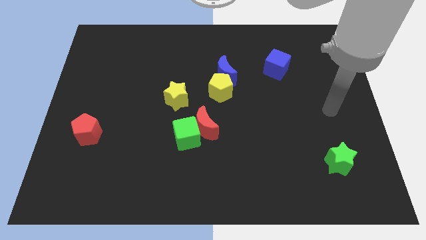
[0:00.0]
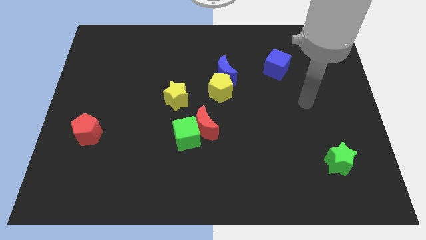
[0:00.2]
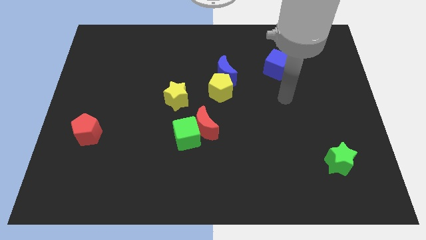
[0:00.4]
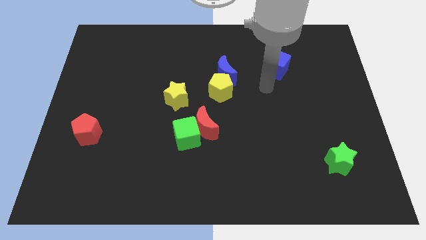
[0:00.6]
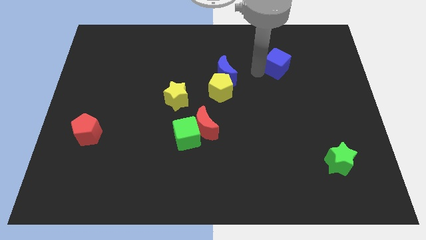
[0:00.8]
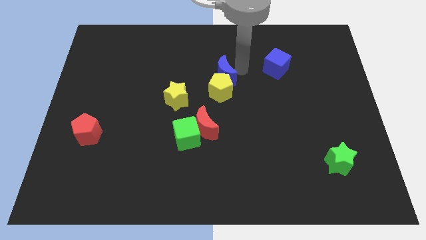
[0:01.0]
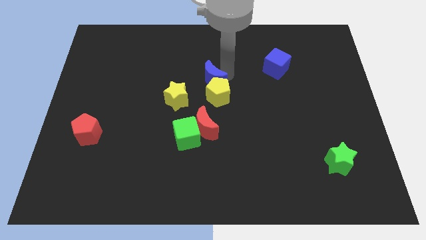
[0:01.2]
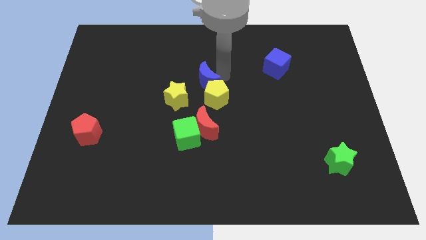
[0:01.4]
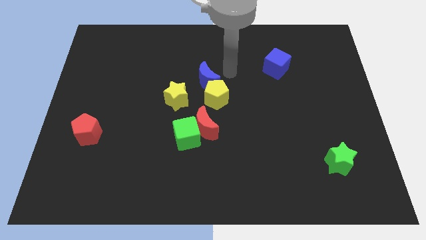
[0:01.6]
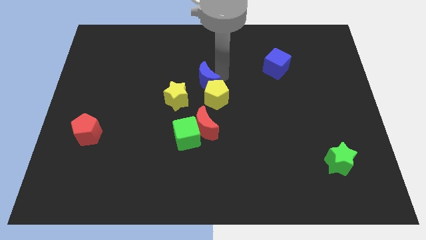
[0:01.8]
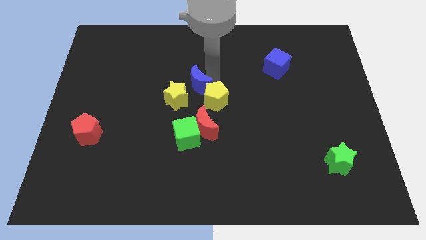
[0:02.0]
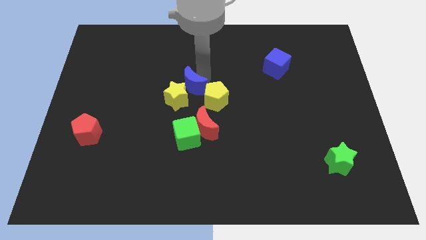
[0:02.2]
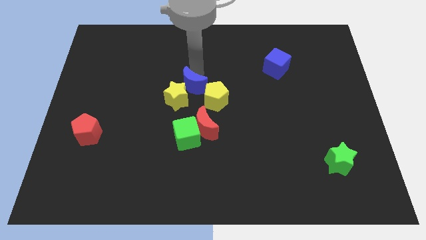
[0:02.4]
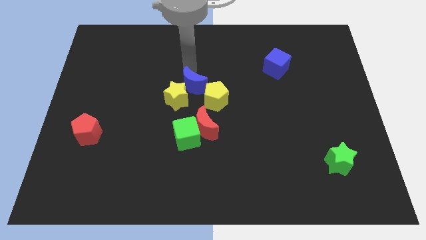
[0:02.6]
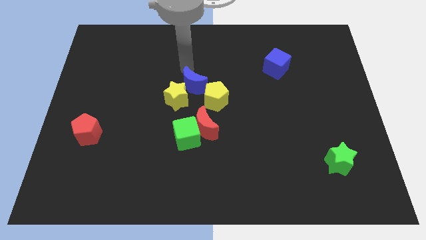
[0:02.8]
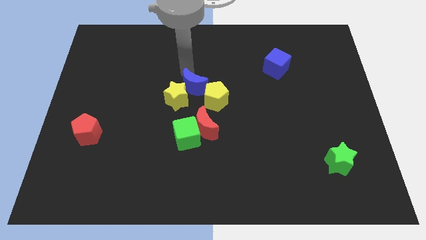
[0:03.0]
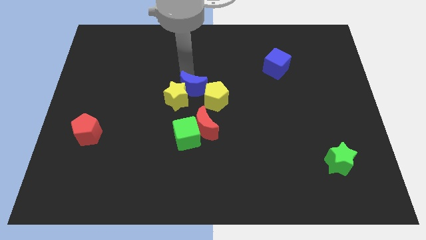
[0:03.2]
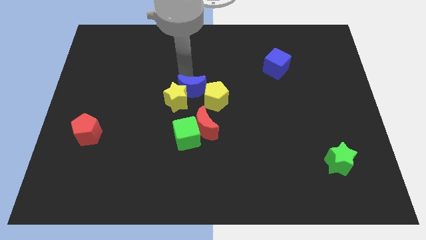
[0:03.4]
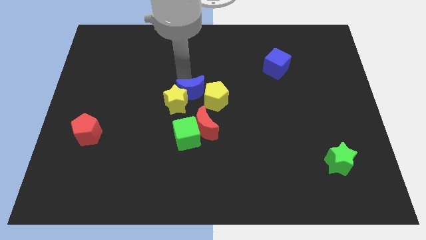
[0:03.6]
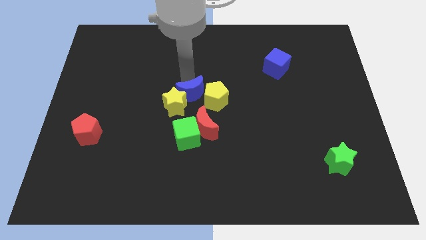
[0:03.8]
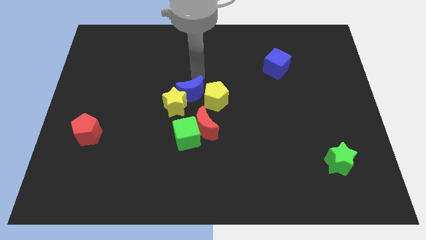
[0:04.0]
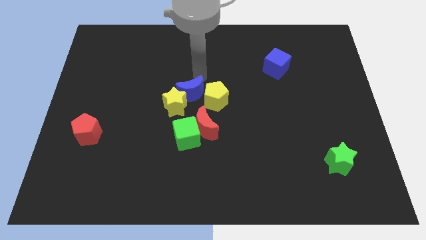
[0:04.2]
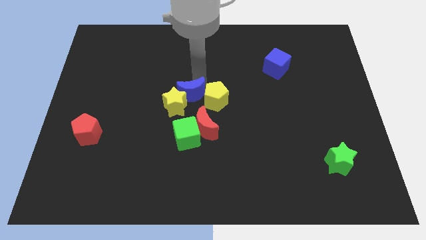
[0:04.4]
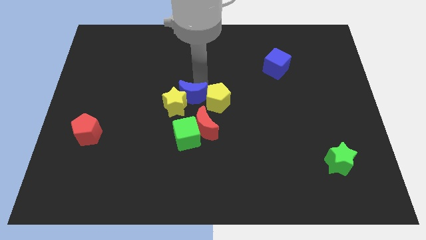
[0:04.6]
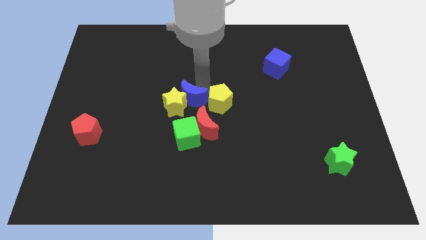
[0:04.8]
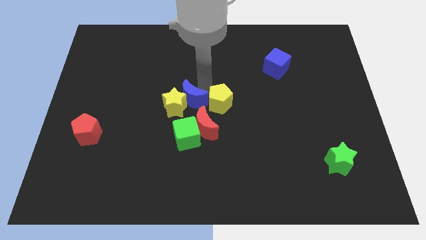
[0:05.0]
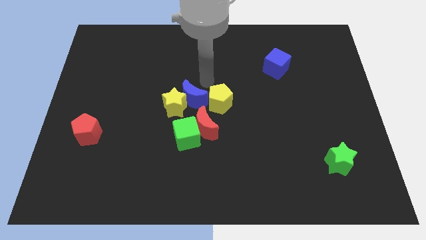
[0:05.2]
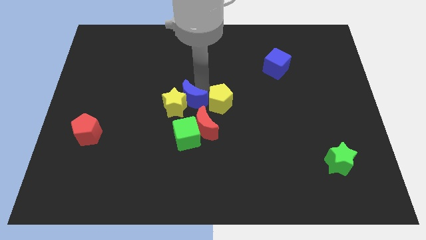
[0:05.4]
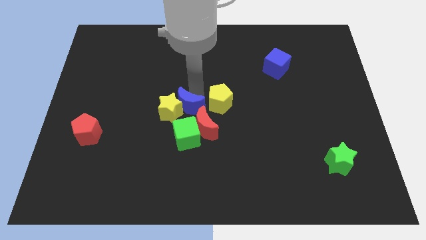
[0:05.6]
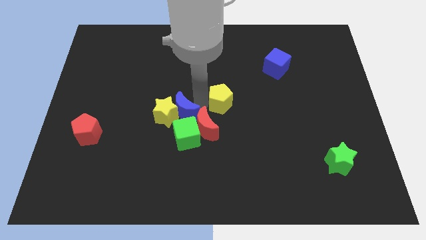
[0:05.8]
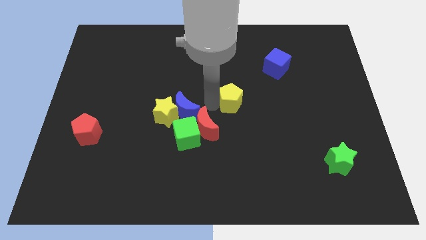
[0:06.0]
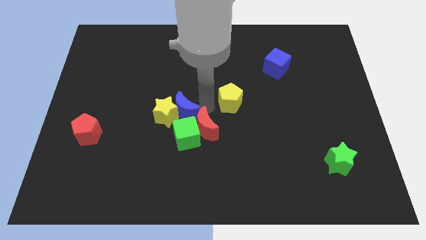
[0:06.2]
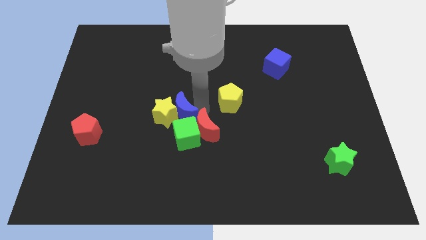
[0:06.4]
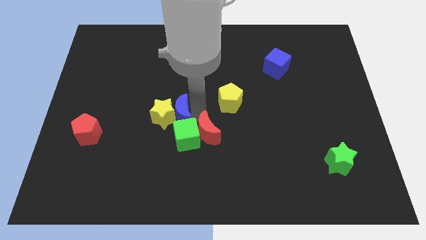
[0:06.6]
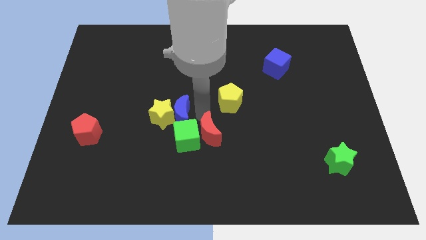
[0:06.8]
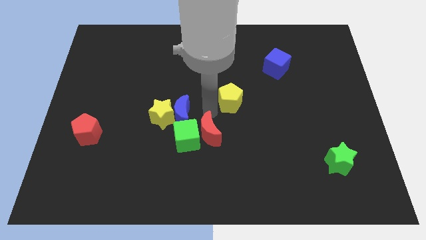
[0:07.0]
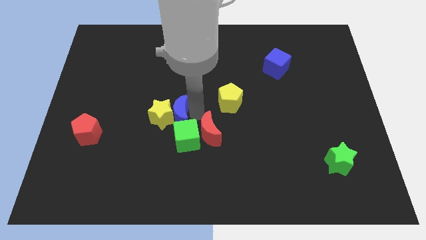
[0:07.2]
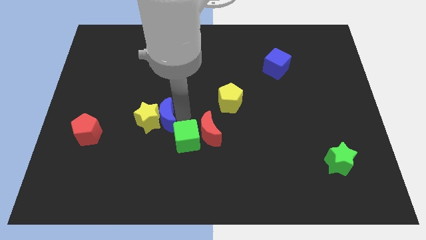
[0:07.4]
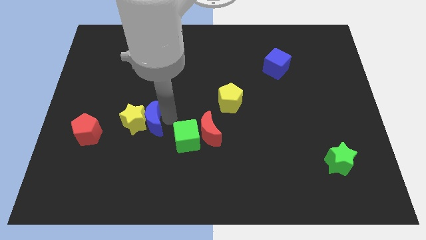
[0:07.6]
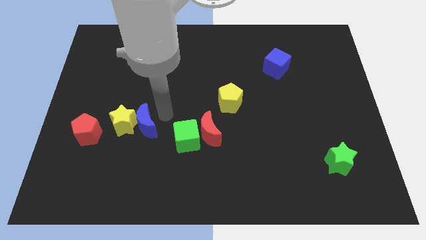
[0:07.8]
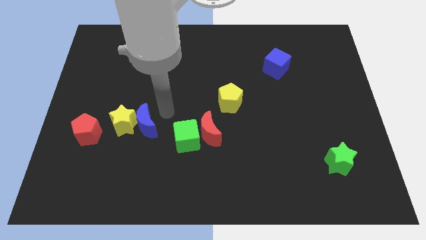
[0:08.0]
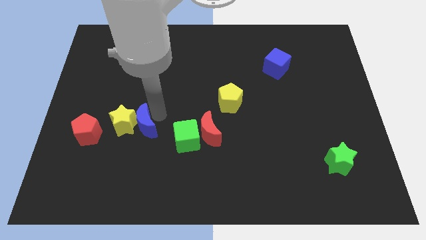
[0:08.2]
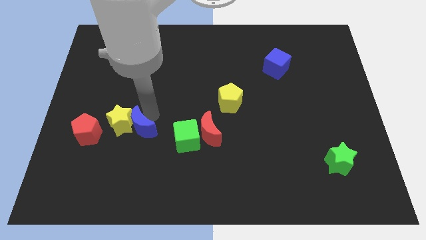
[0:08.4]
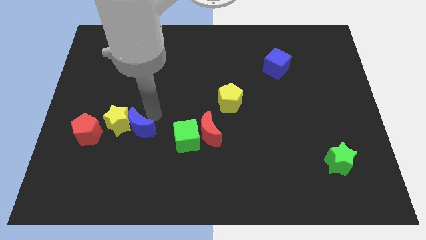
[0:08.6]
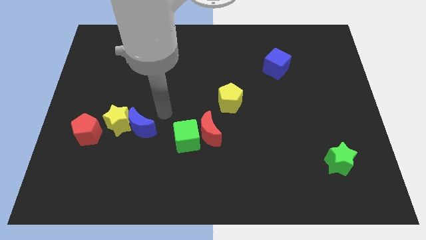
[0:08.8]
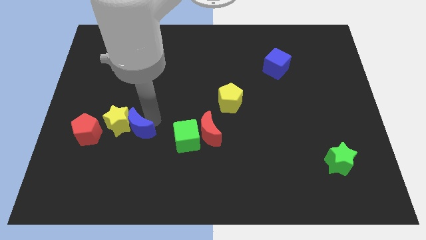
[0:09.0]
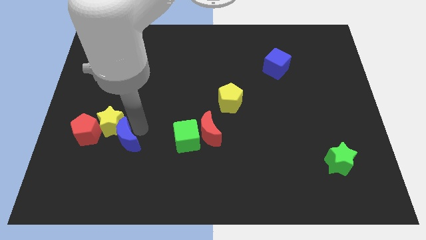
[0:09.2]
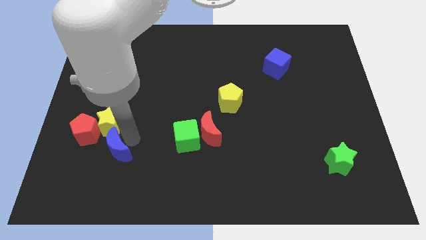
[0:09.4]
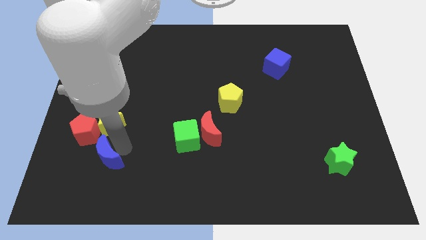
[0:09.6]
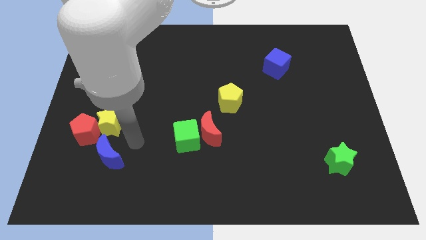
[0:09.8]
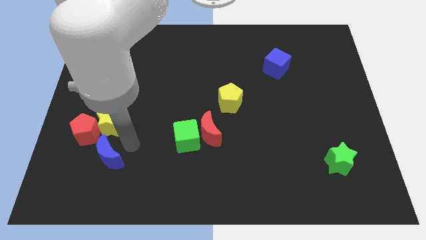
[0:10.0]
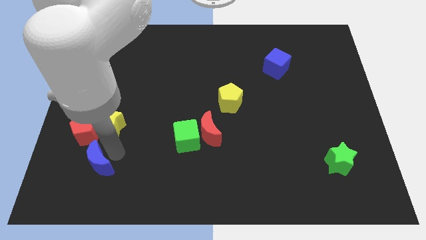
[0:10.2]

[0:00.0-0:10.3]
move the blue moon to the bottom of the red pentagon

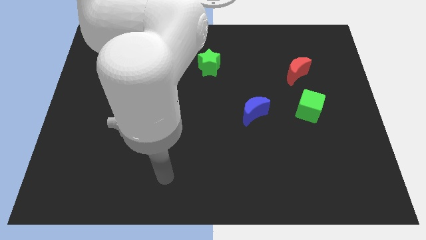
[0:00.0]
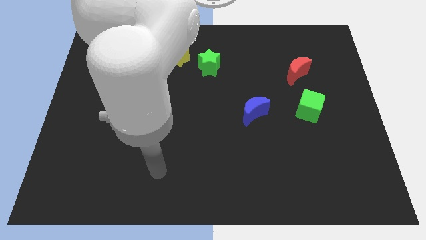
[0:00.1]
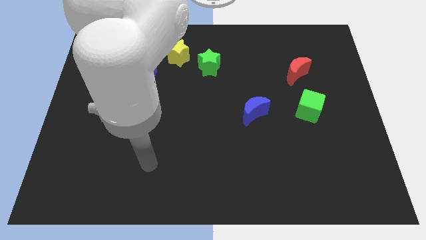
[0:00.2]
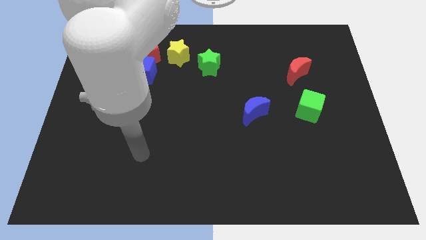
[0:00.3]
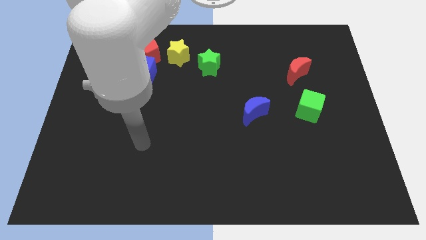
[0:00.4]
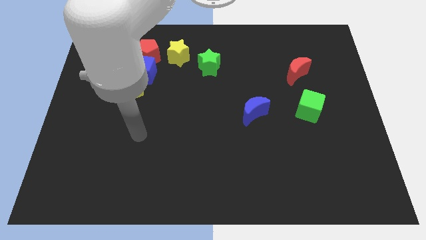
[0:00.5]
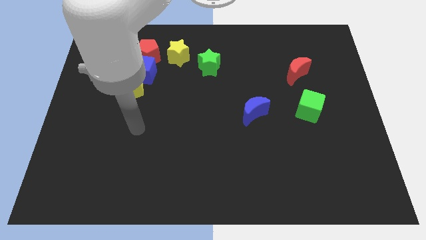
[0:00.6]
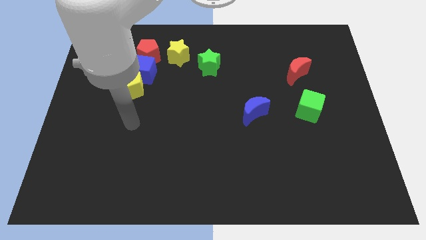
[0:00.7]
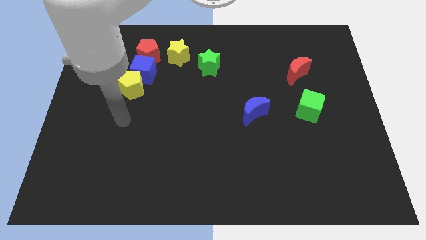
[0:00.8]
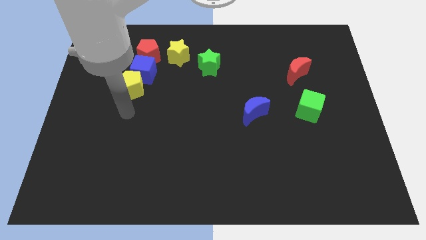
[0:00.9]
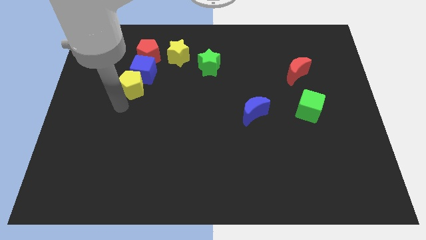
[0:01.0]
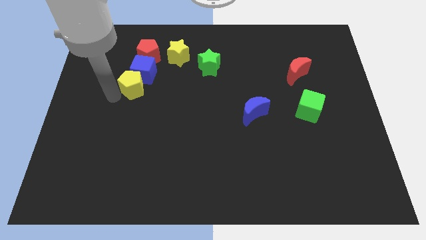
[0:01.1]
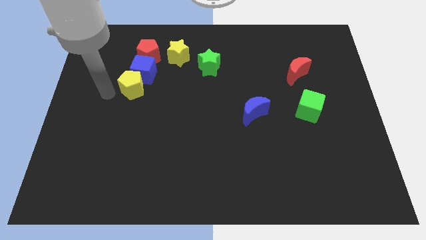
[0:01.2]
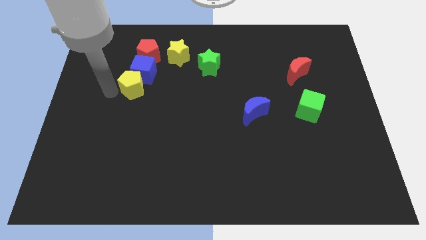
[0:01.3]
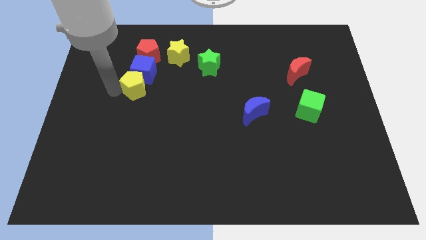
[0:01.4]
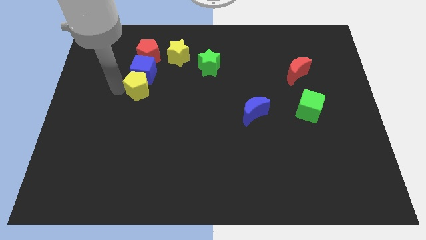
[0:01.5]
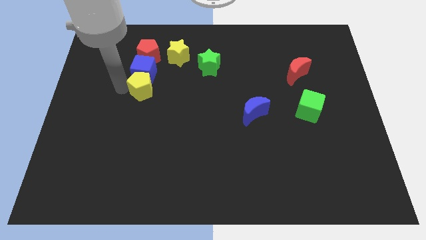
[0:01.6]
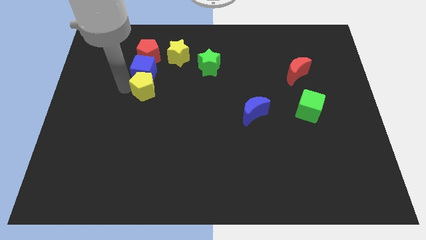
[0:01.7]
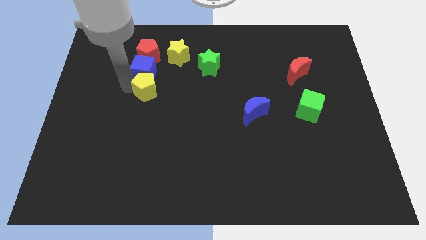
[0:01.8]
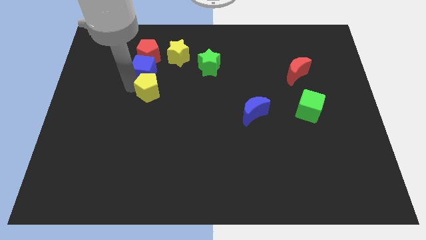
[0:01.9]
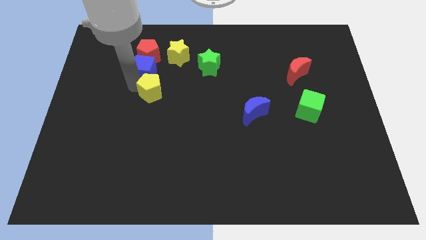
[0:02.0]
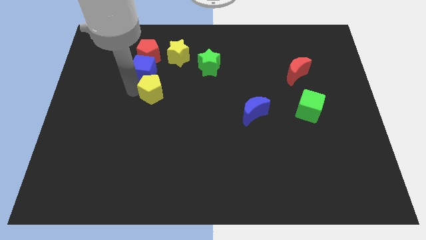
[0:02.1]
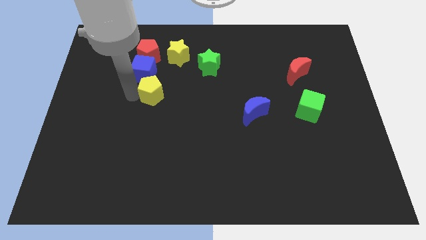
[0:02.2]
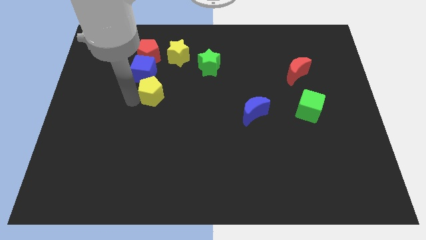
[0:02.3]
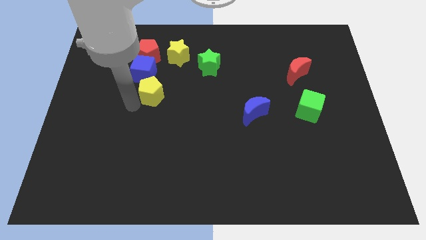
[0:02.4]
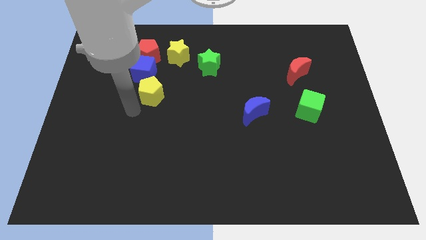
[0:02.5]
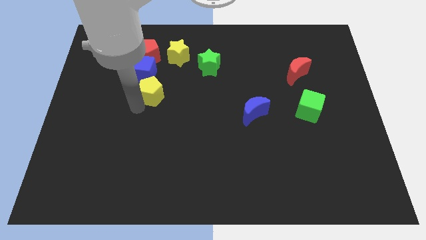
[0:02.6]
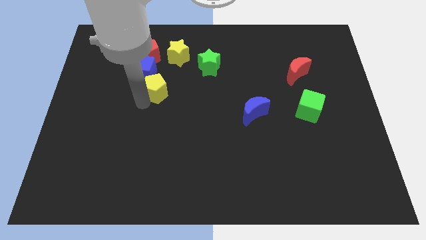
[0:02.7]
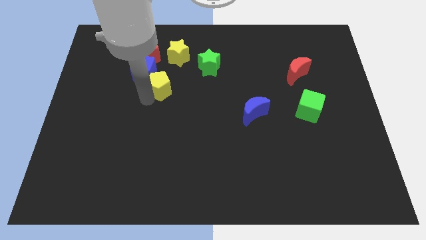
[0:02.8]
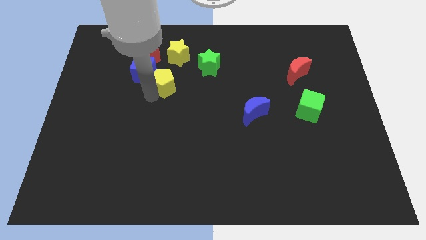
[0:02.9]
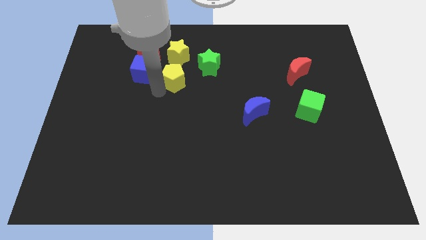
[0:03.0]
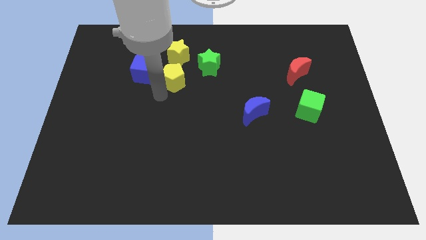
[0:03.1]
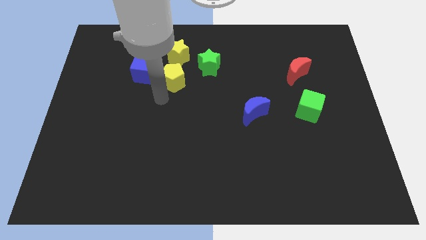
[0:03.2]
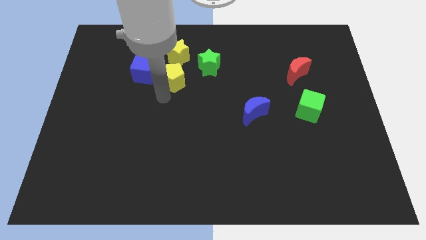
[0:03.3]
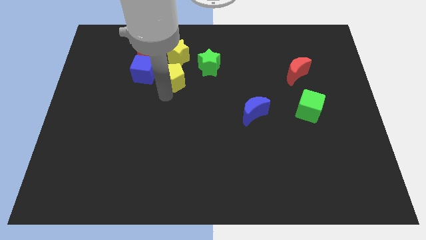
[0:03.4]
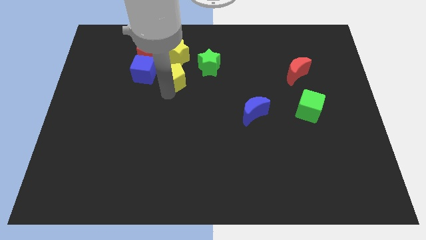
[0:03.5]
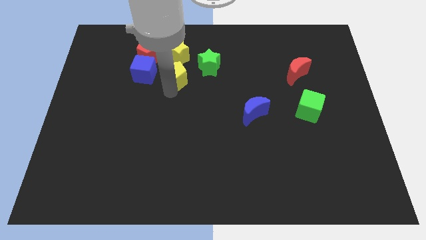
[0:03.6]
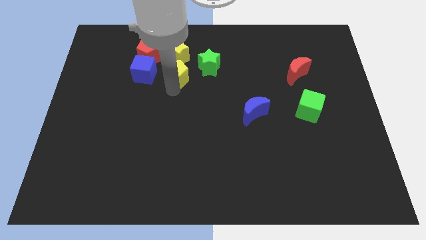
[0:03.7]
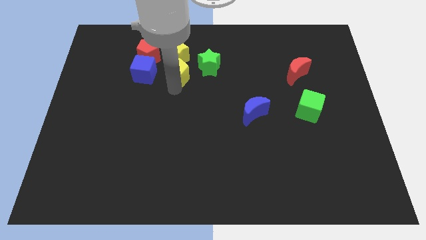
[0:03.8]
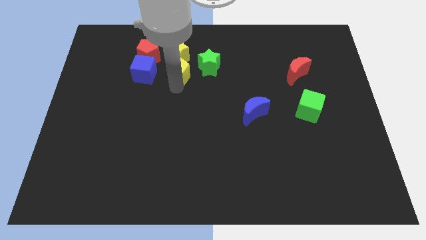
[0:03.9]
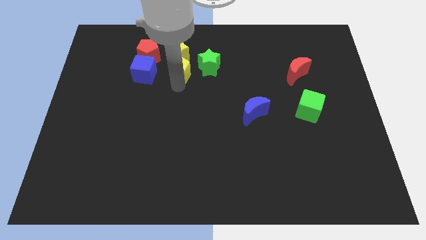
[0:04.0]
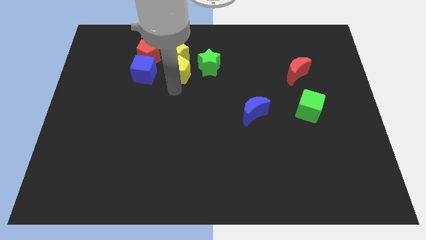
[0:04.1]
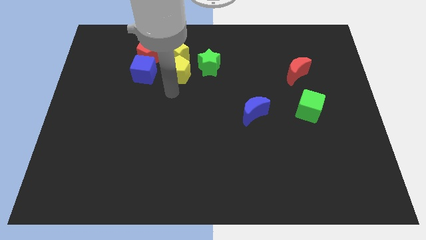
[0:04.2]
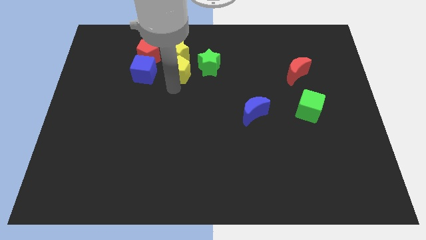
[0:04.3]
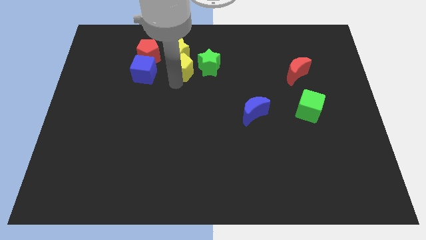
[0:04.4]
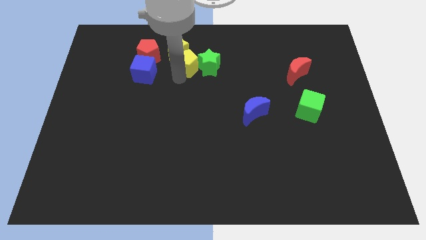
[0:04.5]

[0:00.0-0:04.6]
move the yellow pentagon to the right side of the red pentagon
